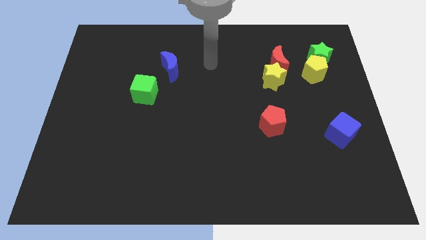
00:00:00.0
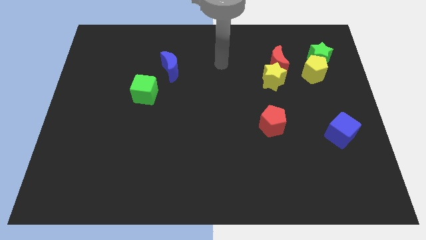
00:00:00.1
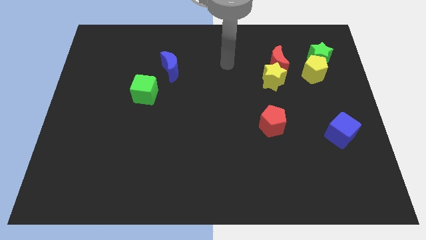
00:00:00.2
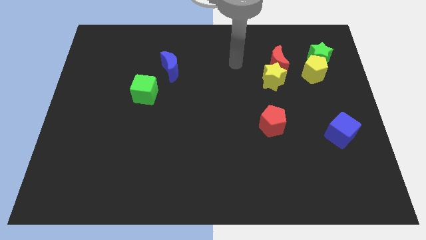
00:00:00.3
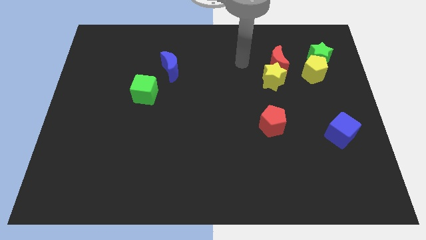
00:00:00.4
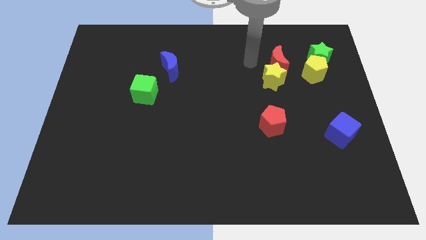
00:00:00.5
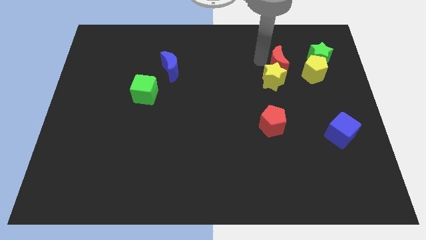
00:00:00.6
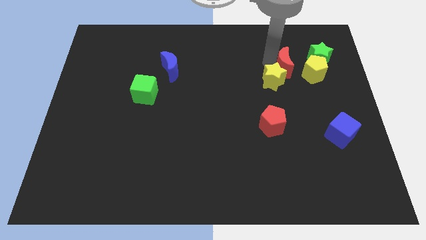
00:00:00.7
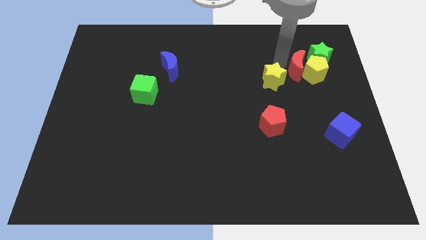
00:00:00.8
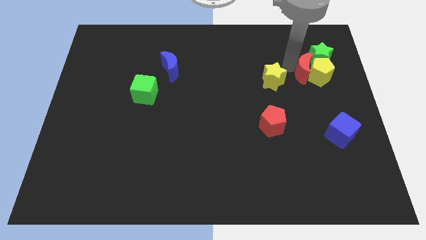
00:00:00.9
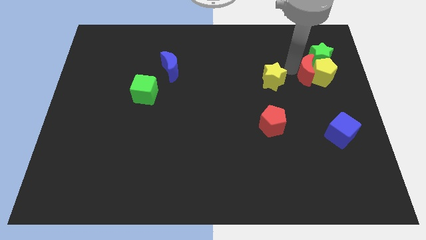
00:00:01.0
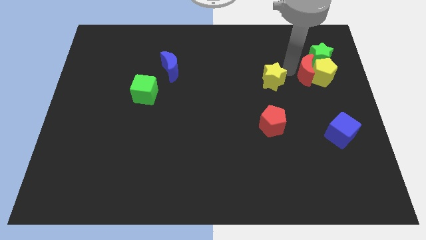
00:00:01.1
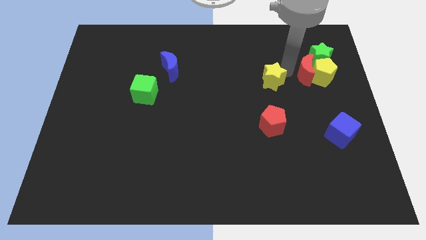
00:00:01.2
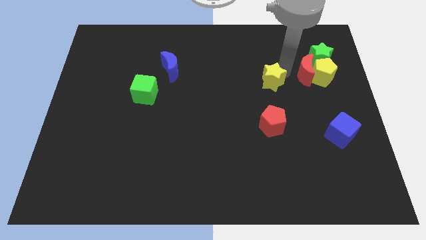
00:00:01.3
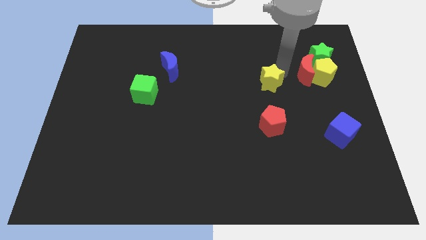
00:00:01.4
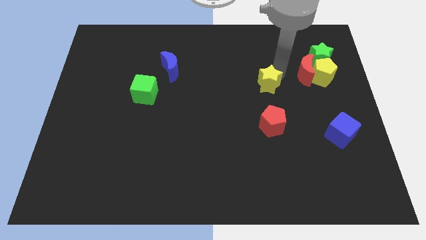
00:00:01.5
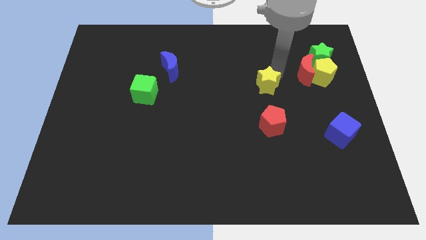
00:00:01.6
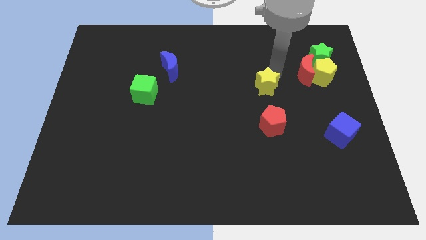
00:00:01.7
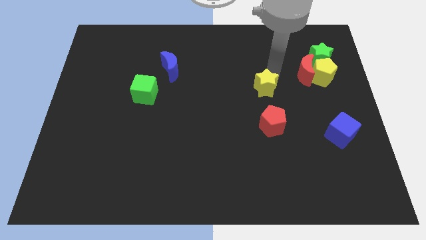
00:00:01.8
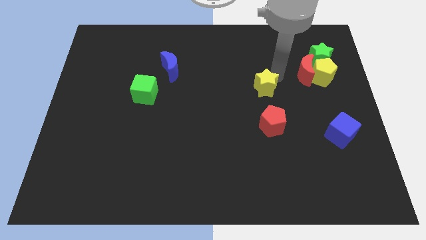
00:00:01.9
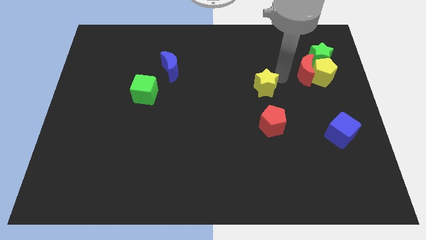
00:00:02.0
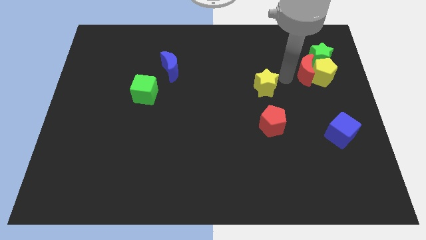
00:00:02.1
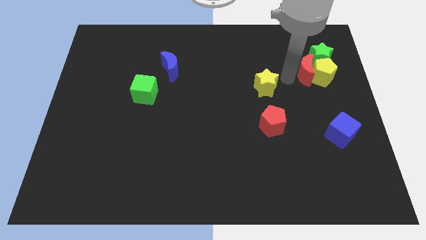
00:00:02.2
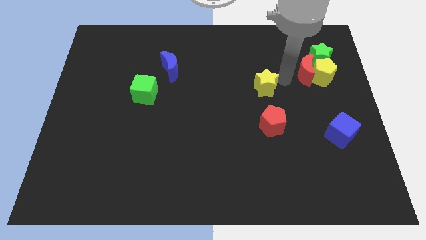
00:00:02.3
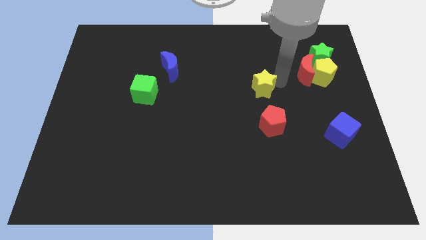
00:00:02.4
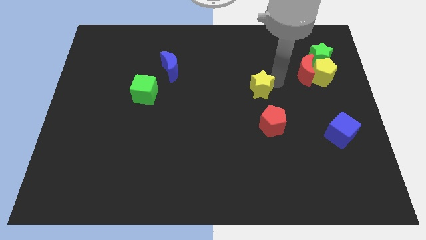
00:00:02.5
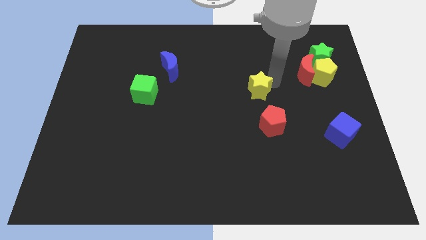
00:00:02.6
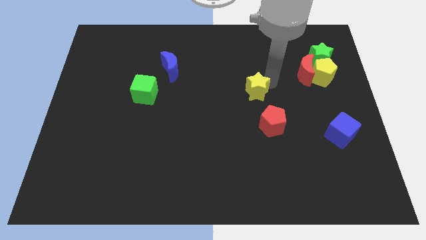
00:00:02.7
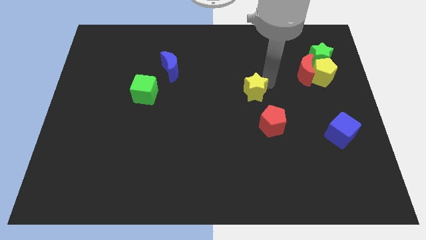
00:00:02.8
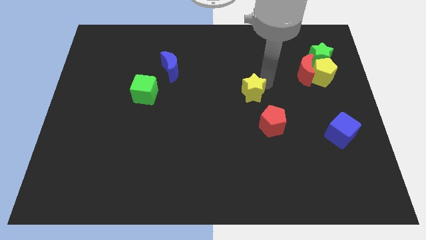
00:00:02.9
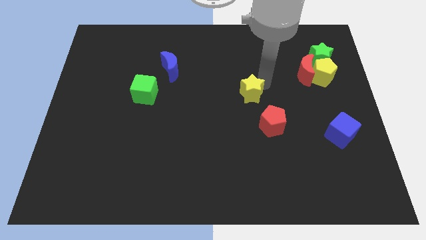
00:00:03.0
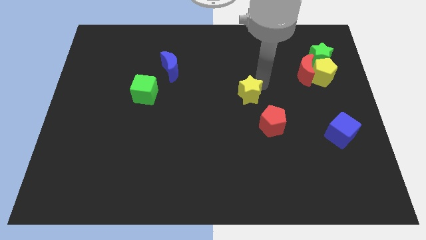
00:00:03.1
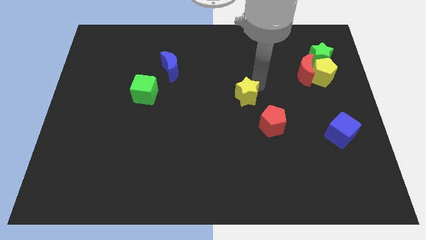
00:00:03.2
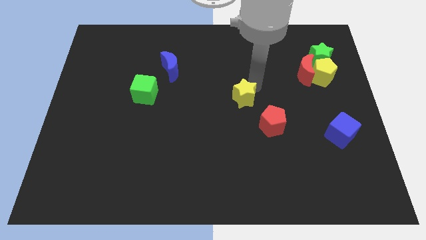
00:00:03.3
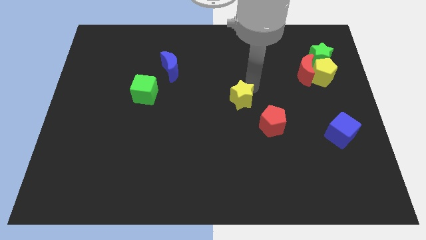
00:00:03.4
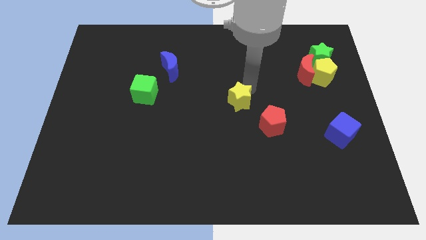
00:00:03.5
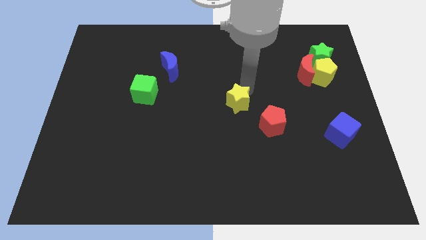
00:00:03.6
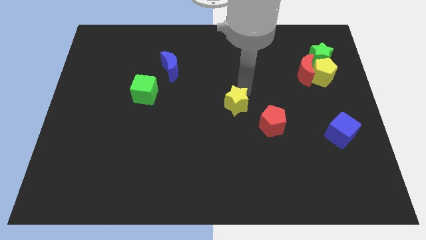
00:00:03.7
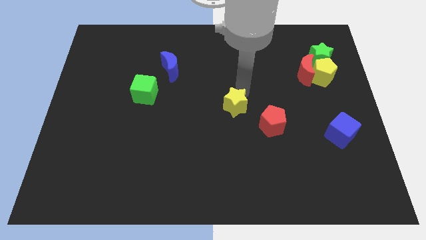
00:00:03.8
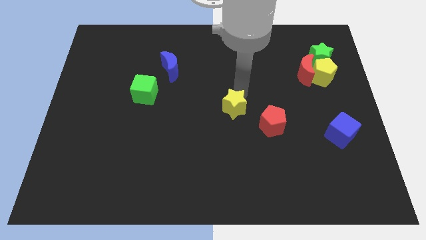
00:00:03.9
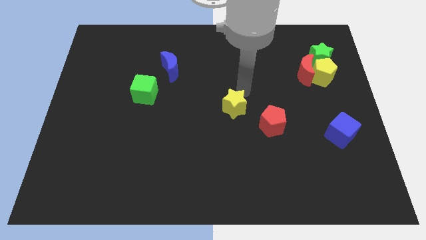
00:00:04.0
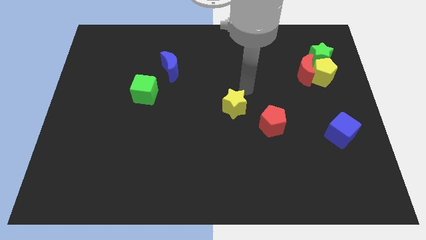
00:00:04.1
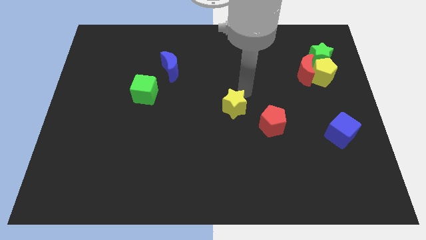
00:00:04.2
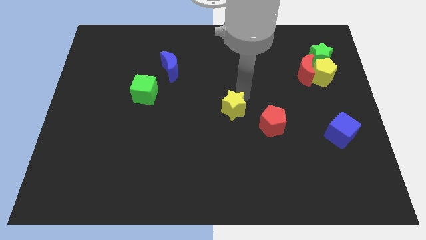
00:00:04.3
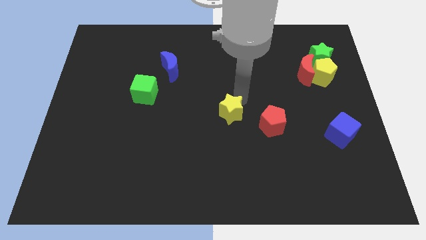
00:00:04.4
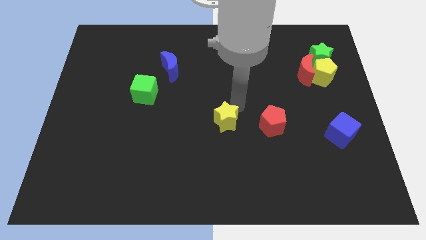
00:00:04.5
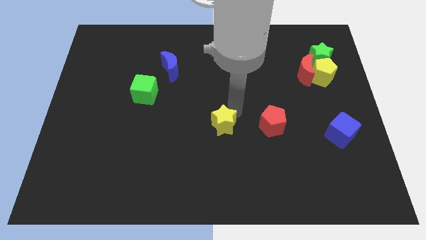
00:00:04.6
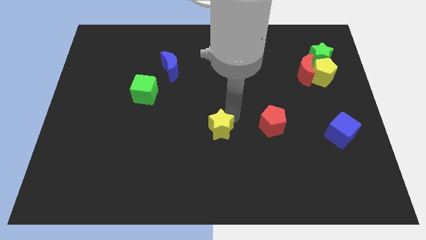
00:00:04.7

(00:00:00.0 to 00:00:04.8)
move the yellow star downwards and left

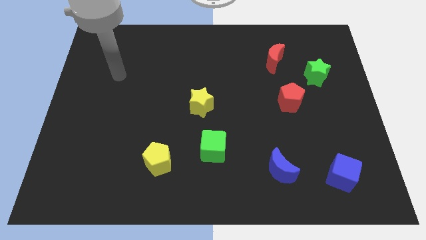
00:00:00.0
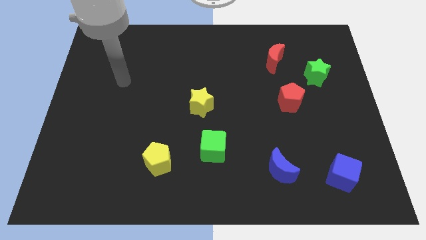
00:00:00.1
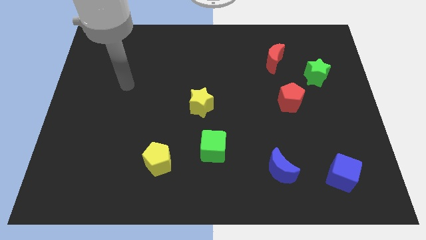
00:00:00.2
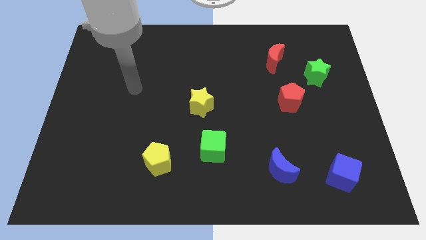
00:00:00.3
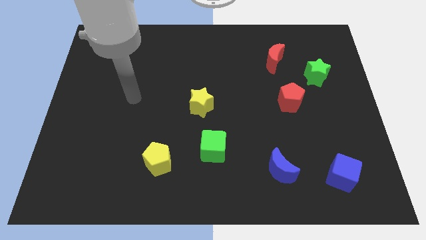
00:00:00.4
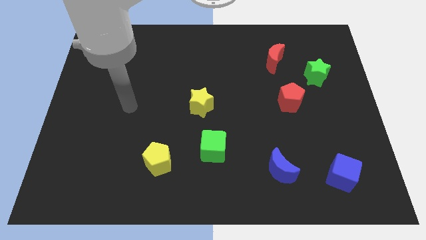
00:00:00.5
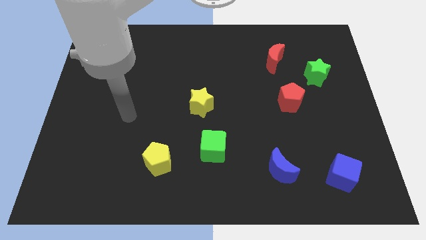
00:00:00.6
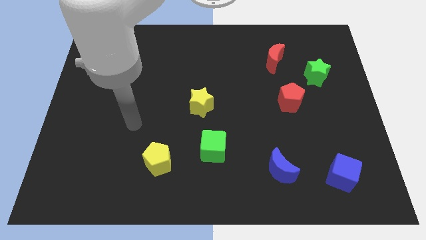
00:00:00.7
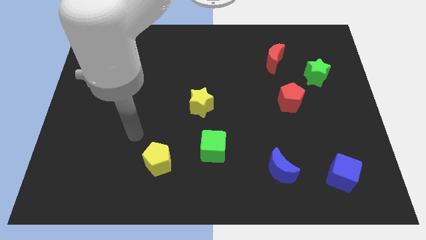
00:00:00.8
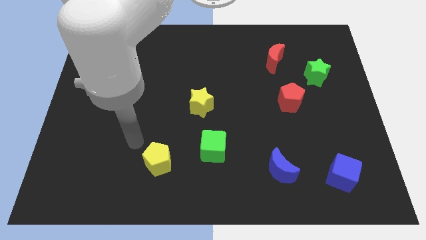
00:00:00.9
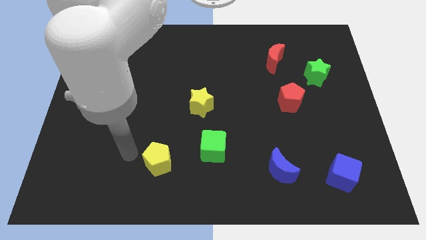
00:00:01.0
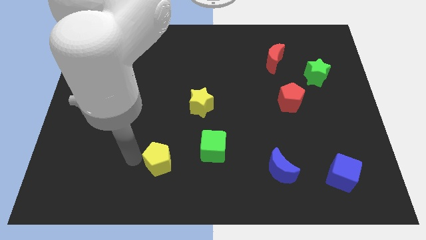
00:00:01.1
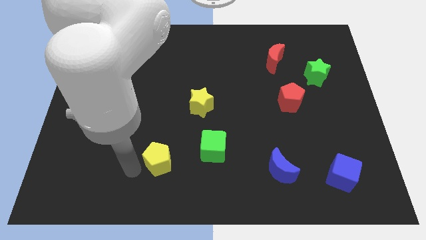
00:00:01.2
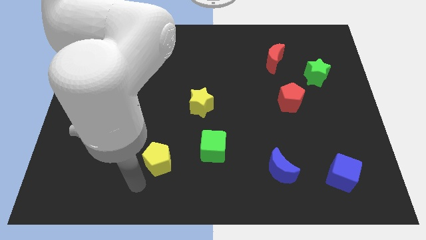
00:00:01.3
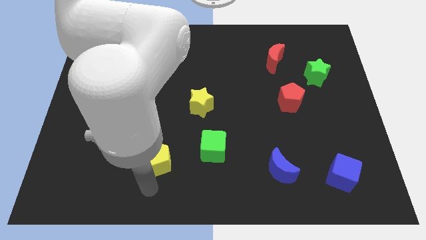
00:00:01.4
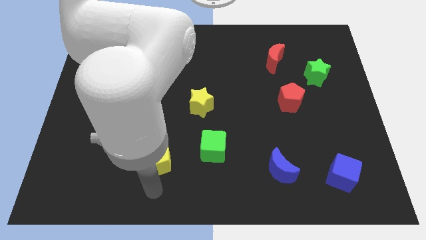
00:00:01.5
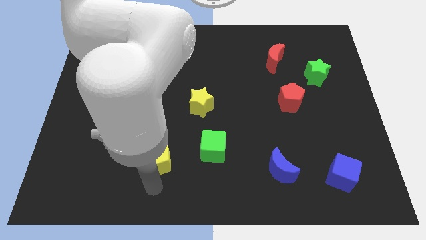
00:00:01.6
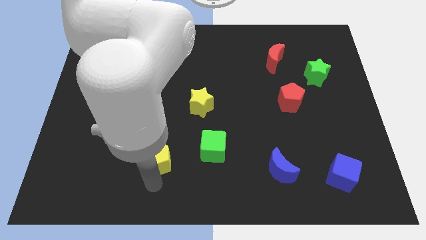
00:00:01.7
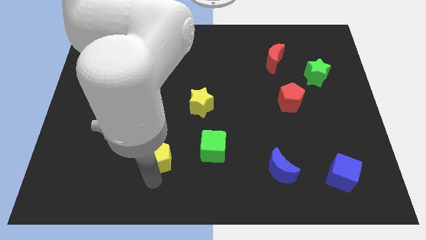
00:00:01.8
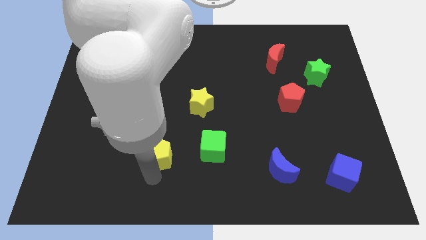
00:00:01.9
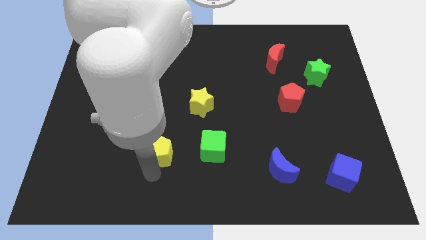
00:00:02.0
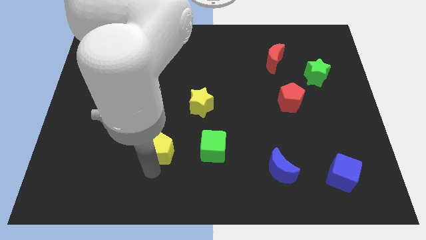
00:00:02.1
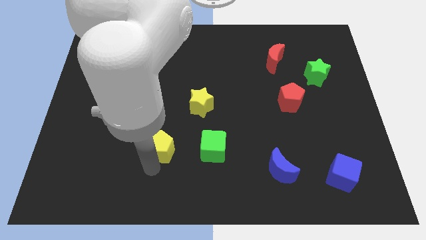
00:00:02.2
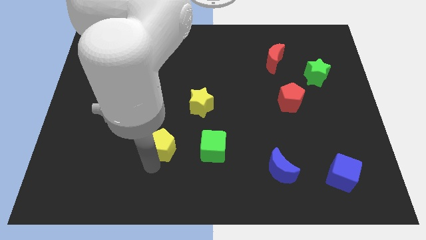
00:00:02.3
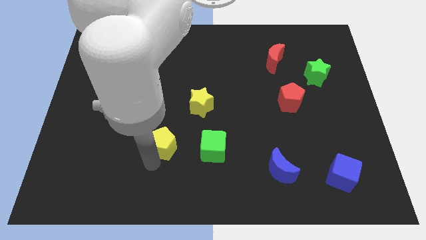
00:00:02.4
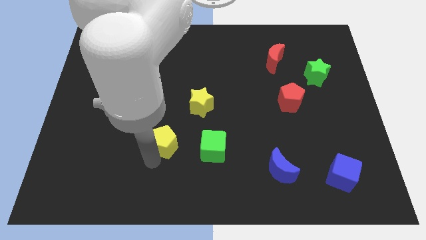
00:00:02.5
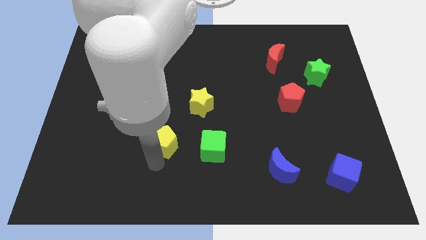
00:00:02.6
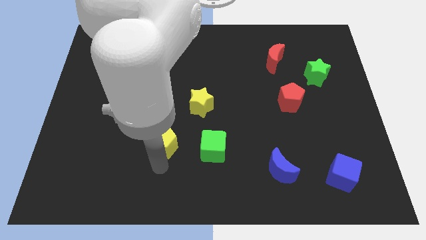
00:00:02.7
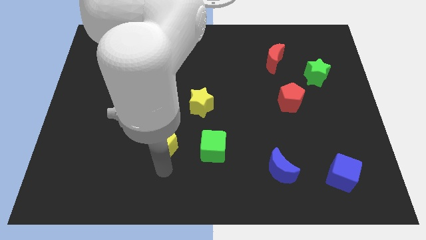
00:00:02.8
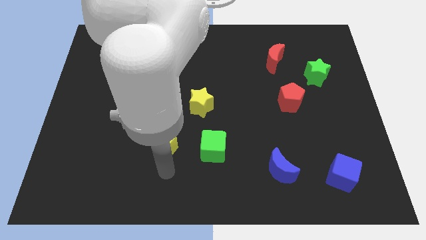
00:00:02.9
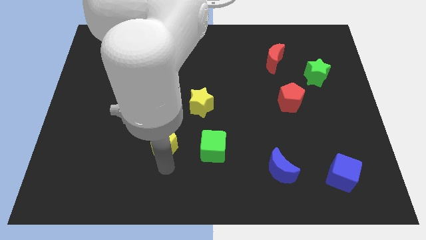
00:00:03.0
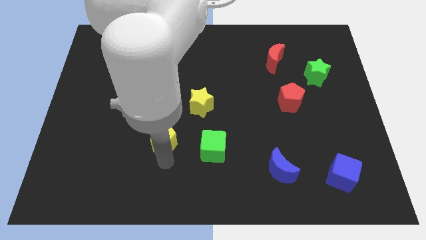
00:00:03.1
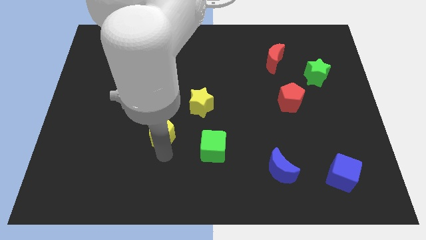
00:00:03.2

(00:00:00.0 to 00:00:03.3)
slide the yellow pentagon up a little
